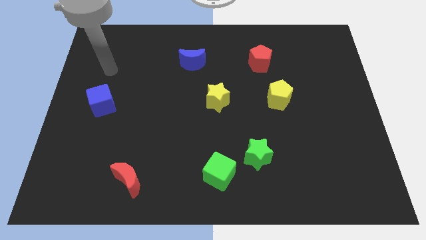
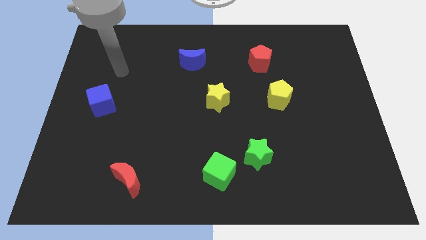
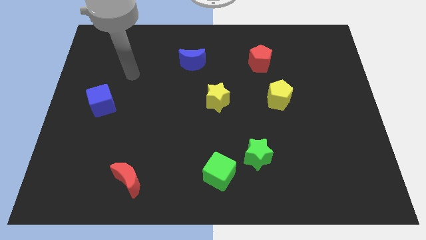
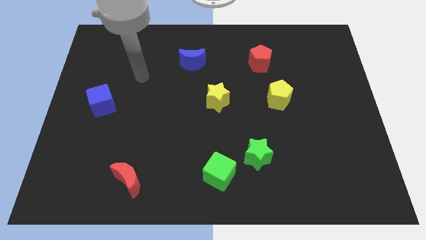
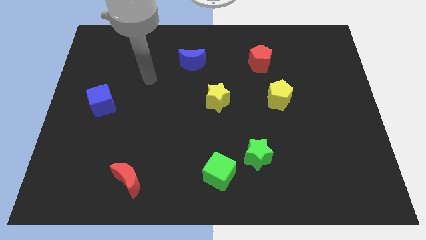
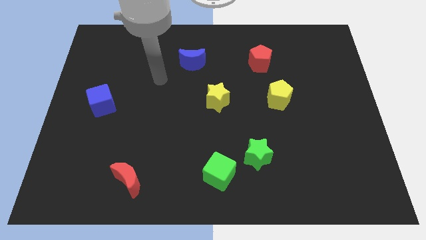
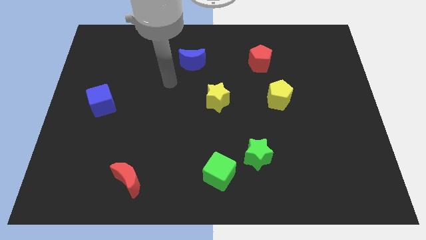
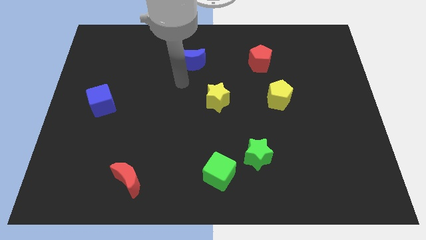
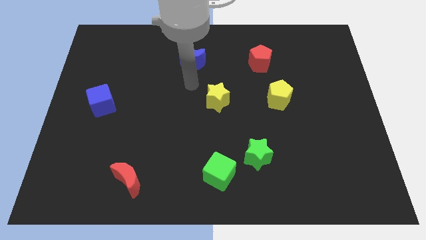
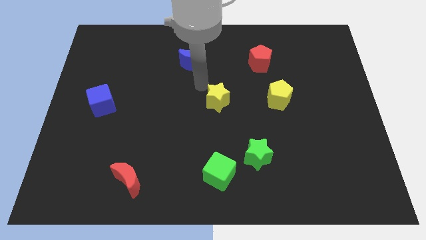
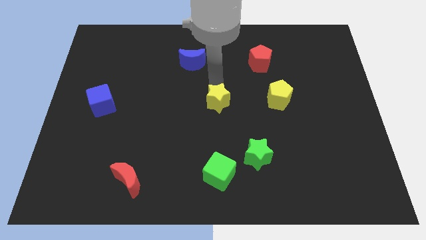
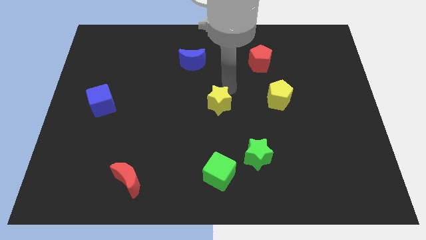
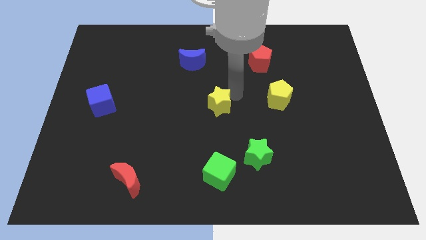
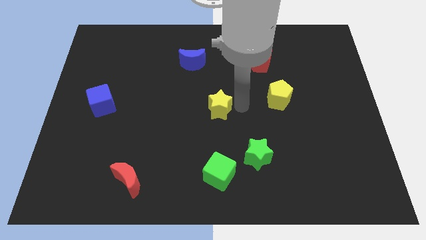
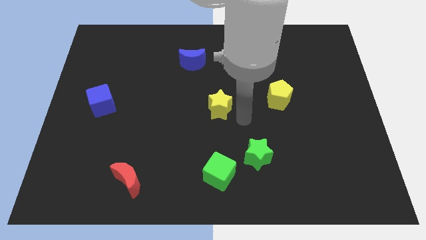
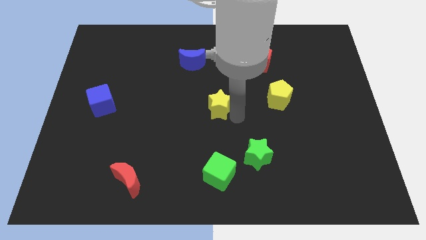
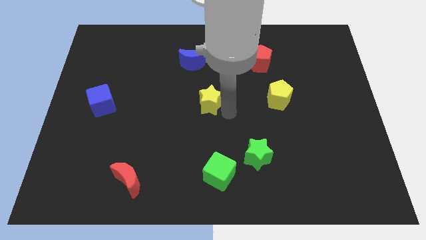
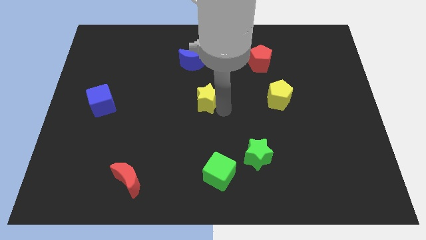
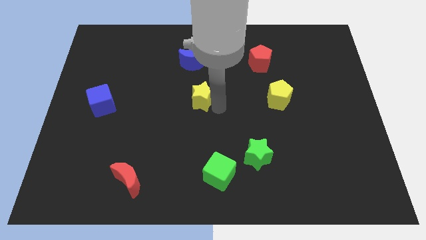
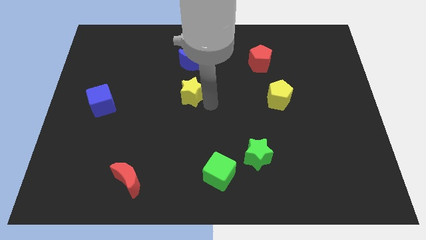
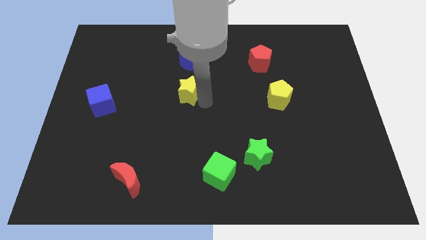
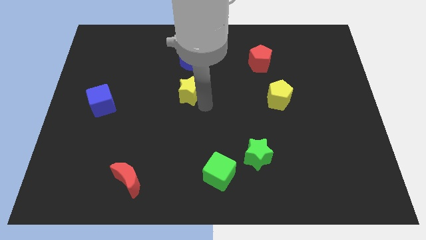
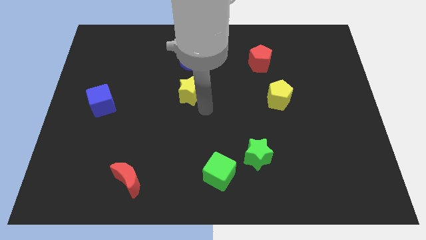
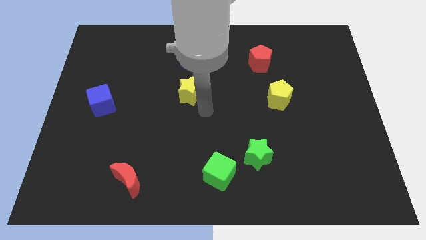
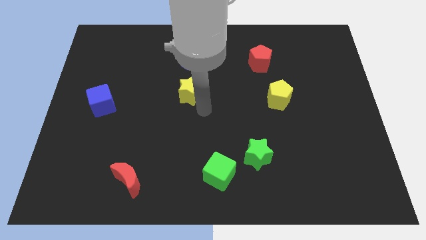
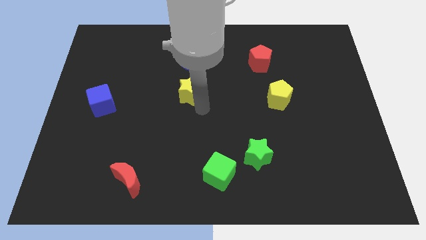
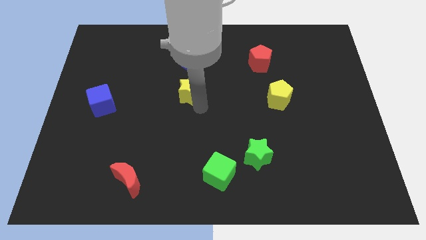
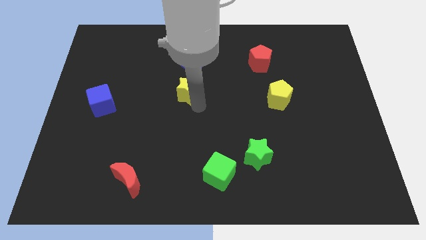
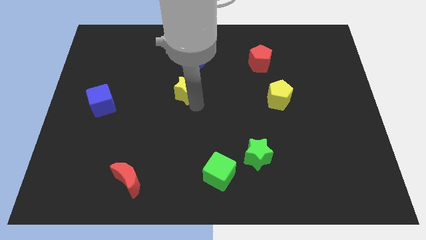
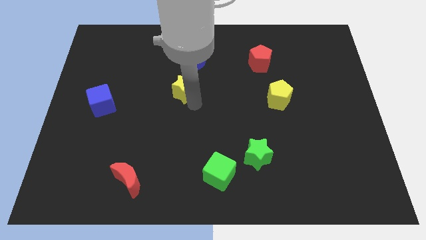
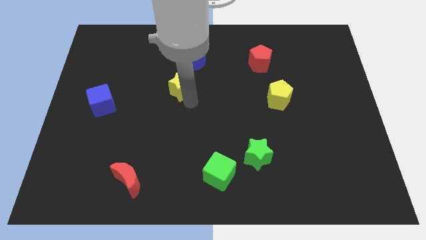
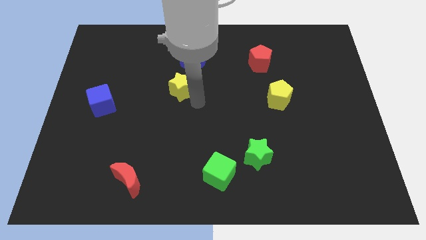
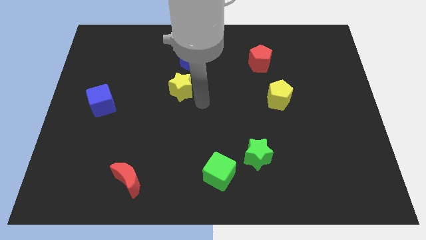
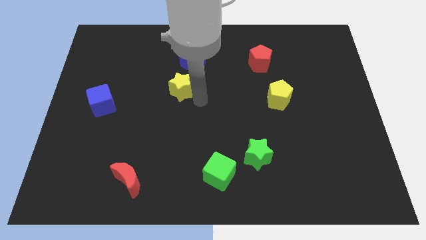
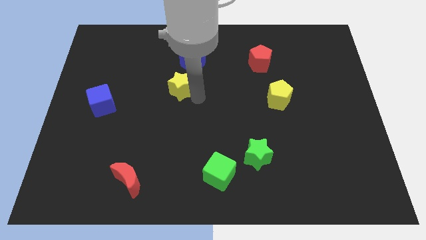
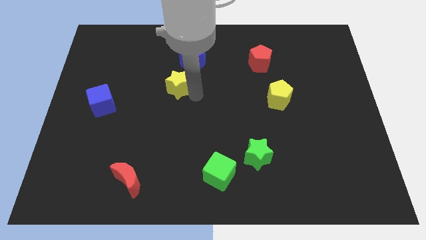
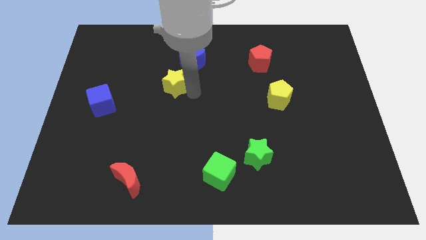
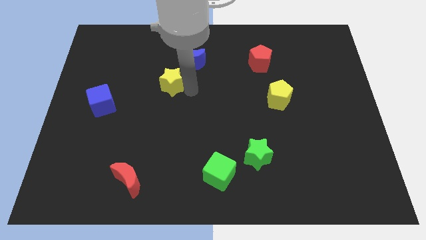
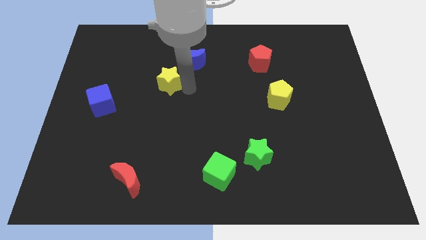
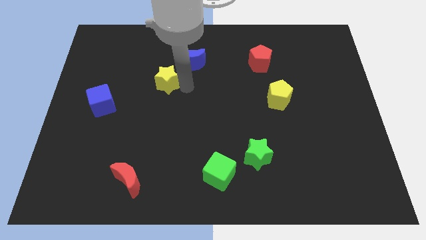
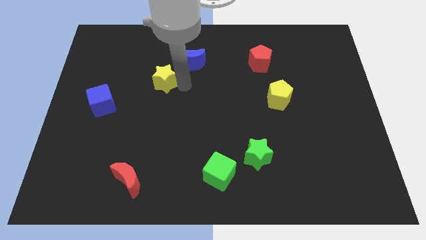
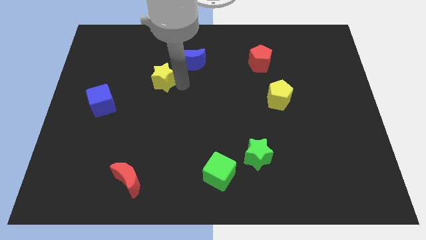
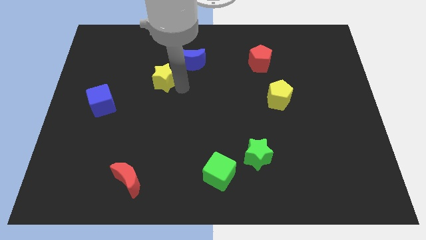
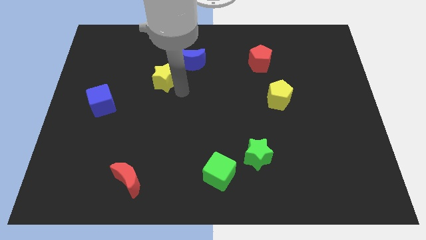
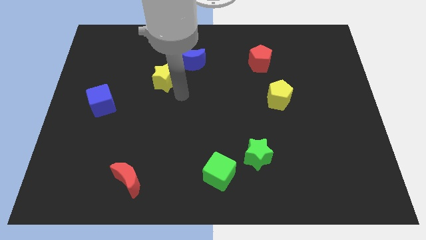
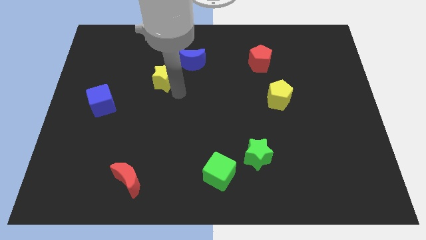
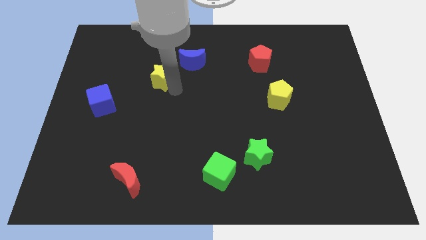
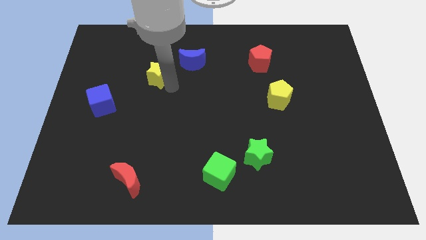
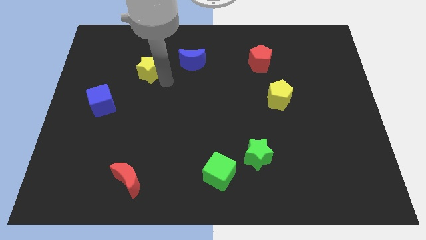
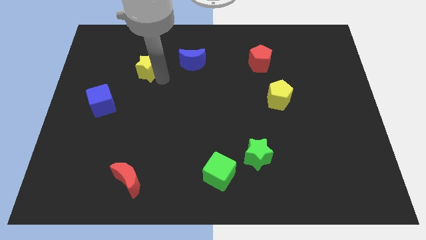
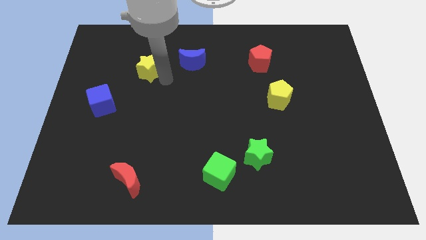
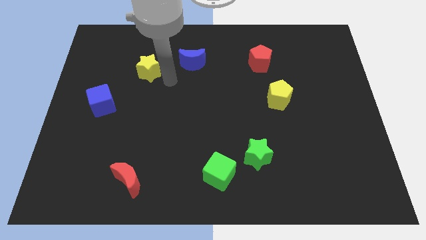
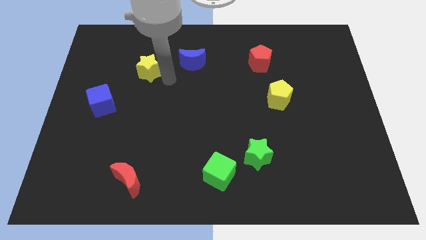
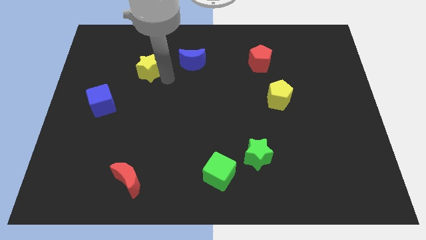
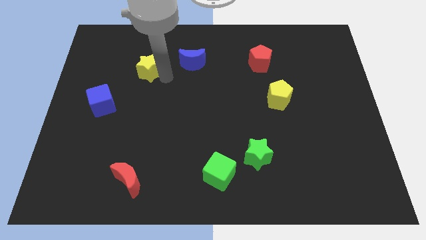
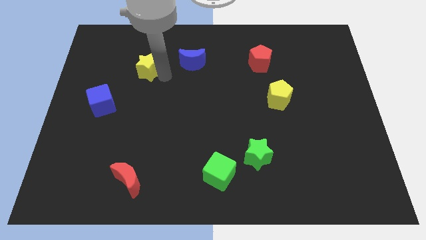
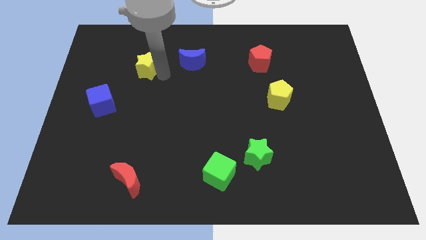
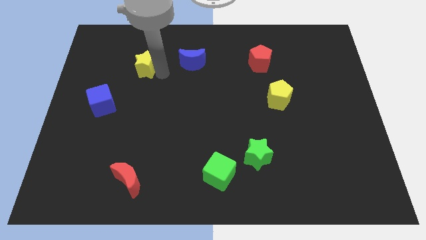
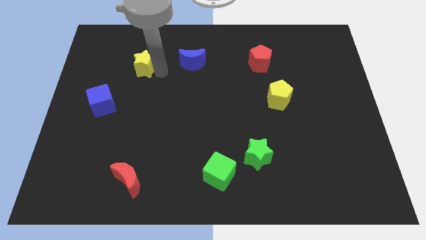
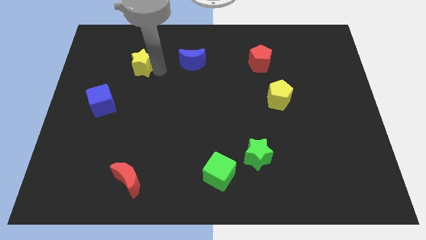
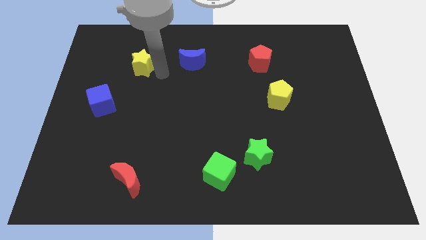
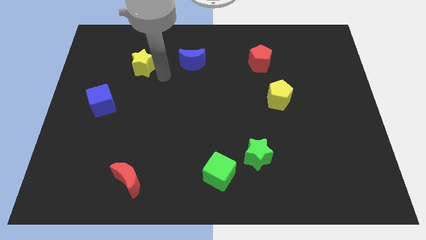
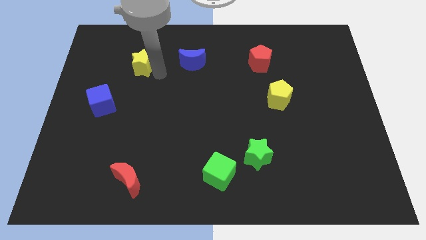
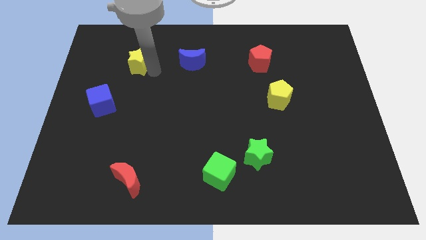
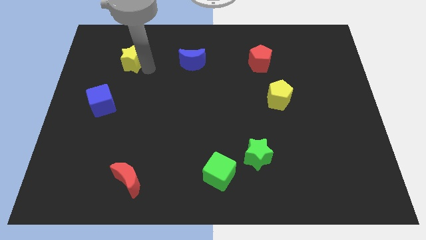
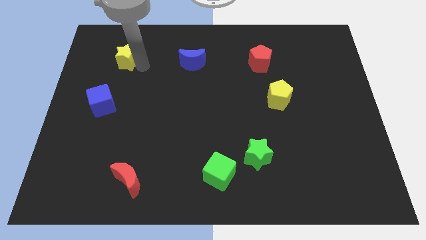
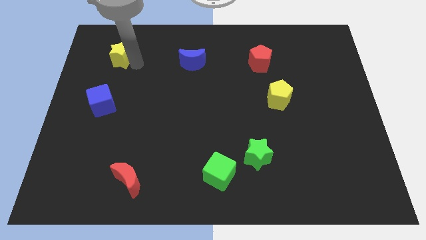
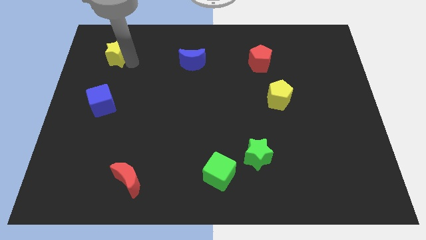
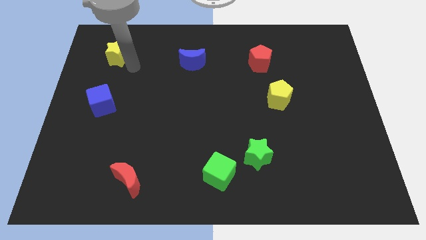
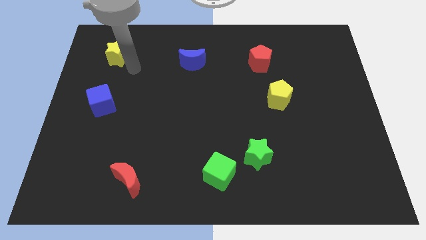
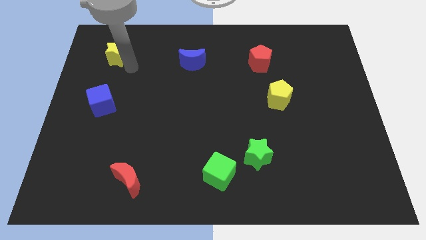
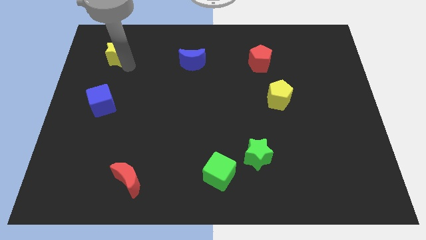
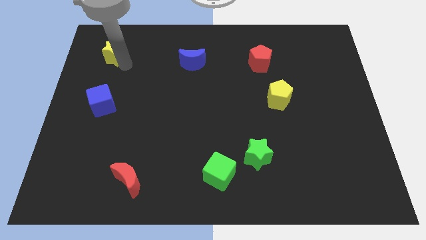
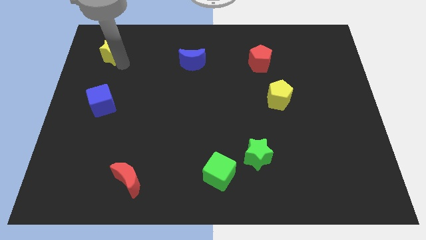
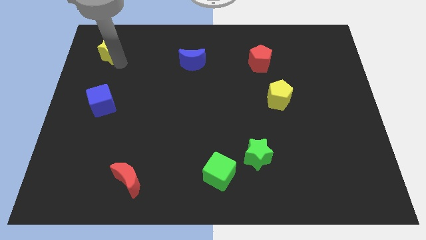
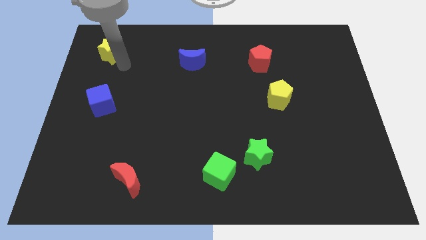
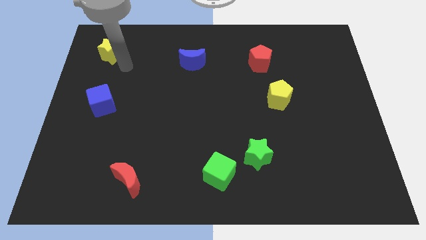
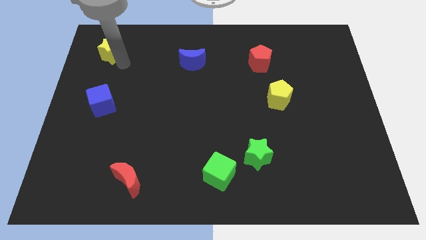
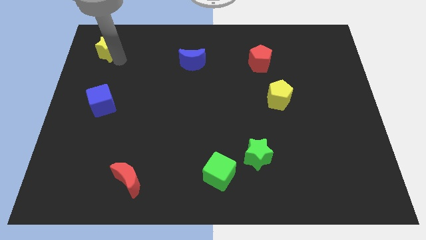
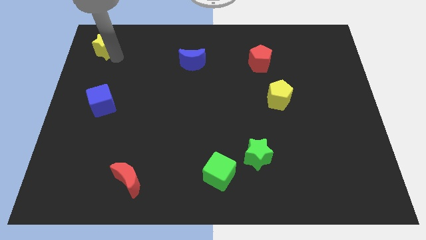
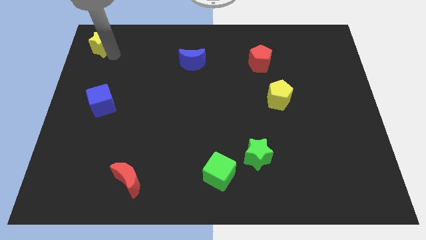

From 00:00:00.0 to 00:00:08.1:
put the yellow star to the top left of the board
